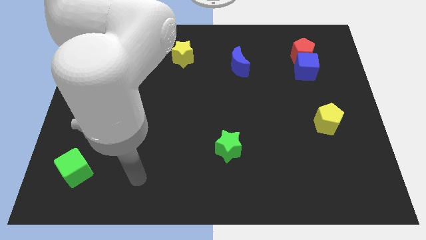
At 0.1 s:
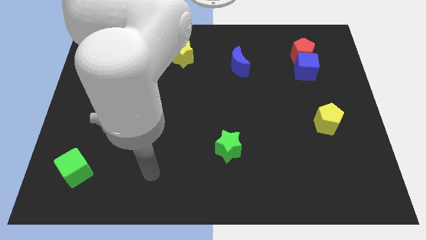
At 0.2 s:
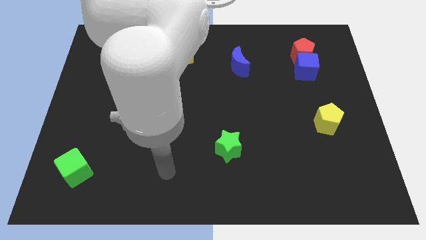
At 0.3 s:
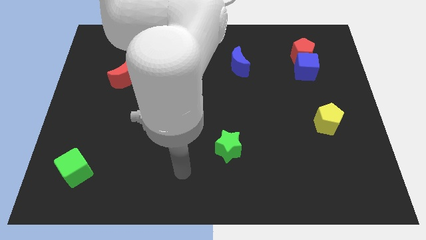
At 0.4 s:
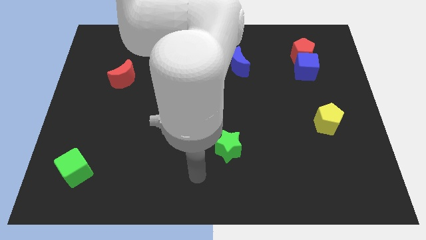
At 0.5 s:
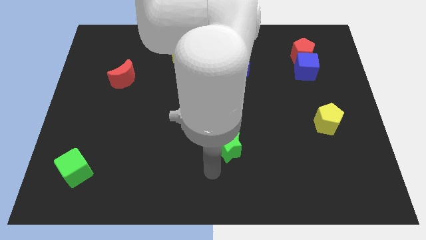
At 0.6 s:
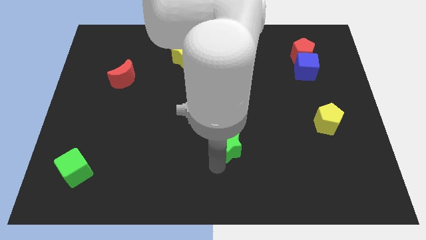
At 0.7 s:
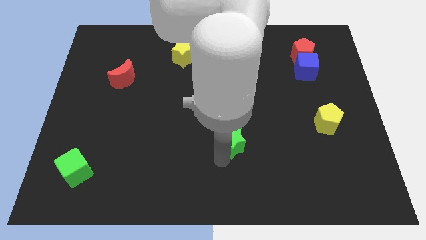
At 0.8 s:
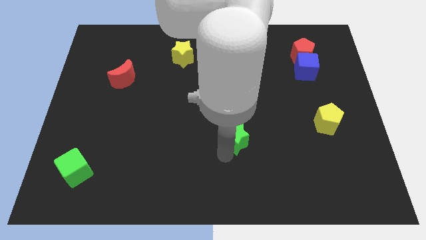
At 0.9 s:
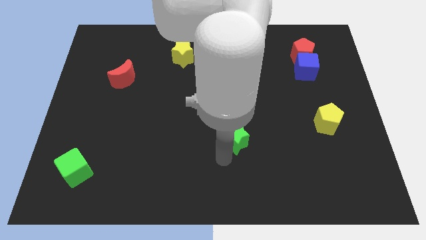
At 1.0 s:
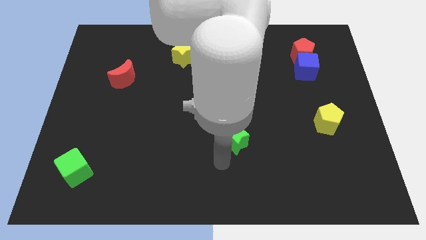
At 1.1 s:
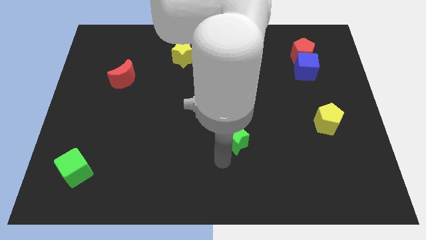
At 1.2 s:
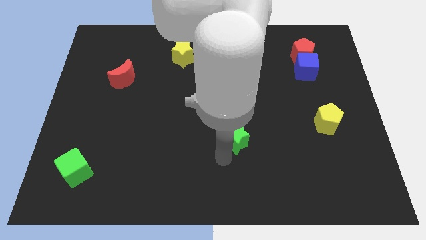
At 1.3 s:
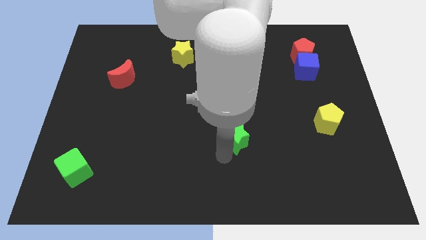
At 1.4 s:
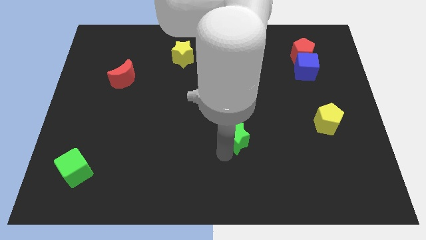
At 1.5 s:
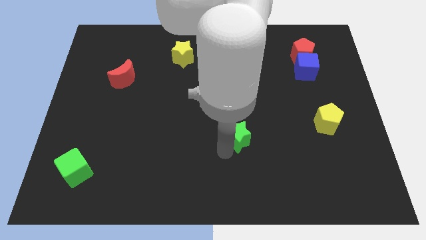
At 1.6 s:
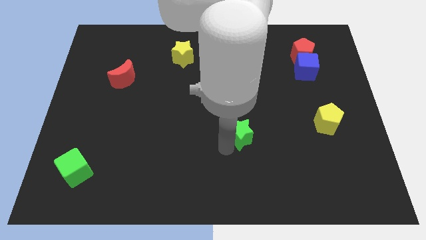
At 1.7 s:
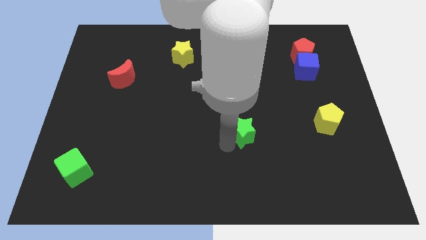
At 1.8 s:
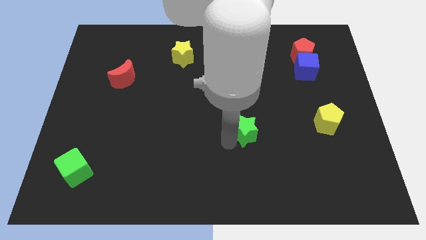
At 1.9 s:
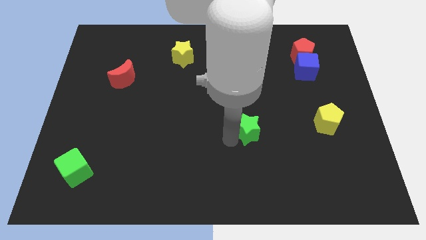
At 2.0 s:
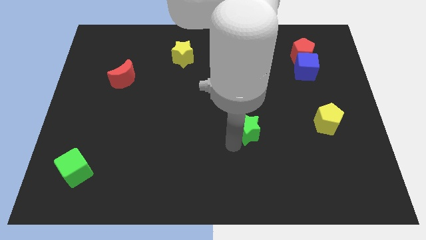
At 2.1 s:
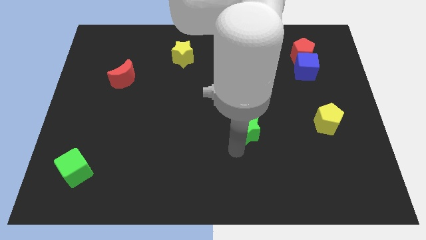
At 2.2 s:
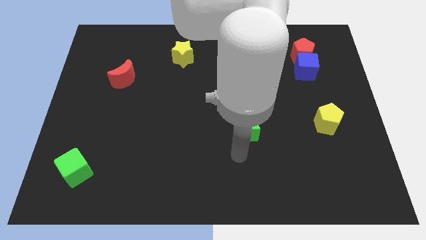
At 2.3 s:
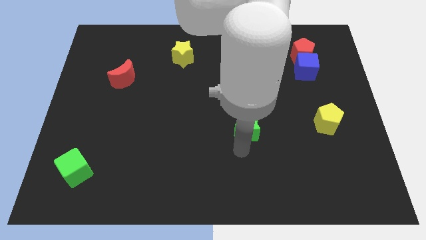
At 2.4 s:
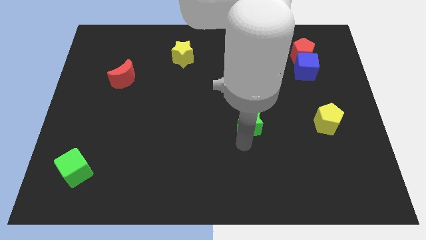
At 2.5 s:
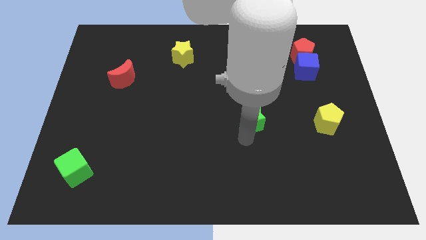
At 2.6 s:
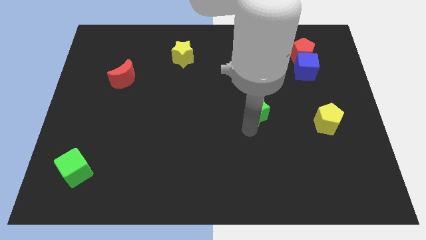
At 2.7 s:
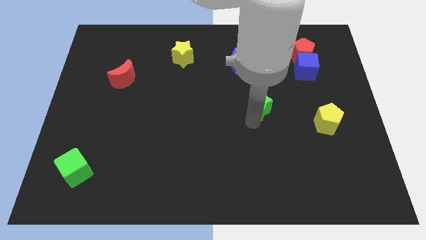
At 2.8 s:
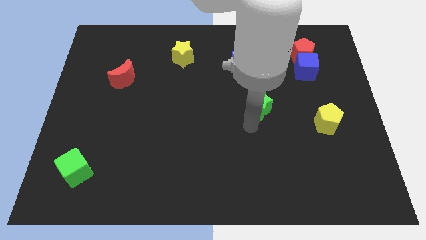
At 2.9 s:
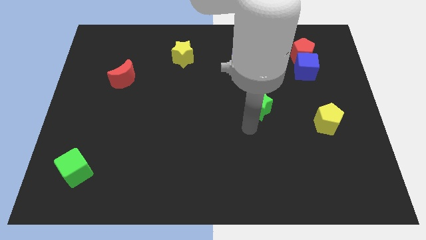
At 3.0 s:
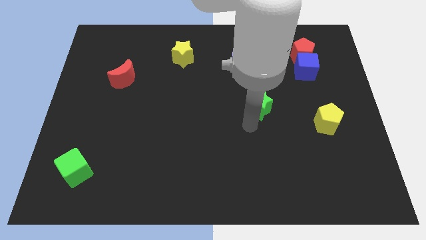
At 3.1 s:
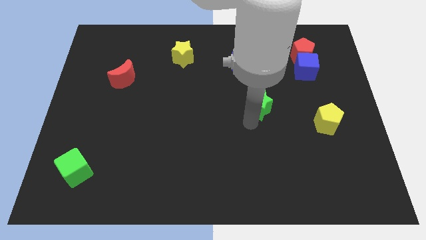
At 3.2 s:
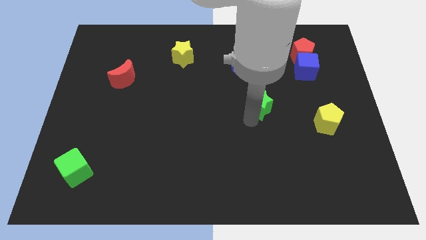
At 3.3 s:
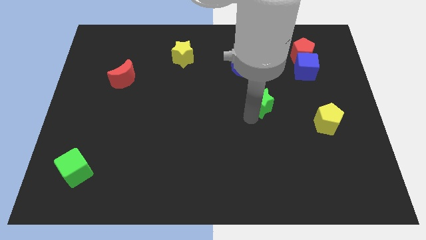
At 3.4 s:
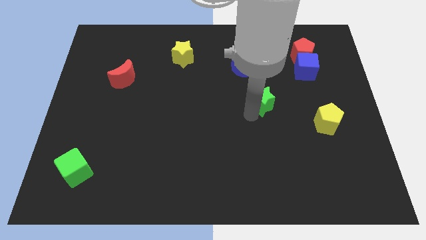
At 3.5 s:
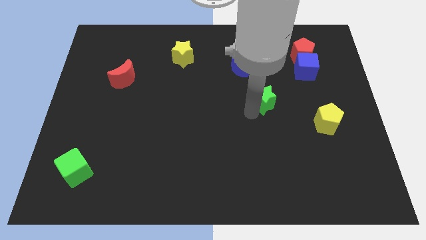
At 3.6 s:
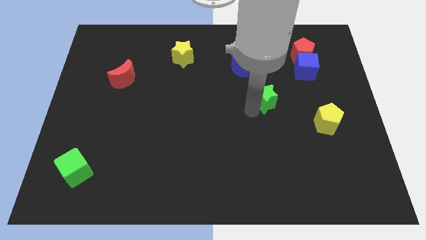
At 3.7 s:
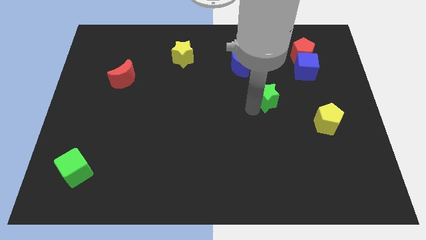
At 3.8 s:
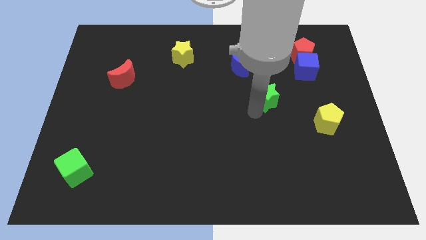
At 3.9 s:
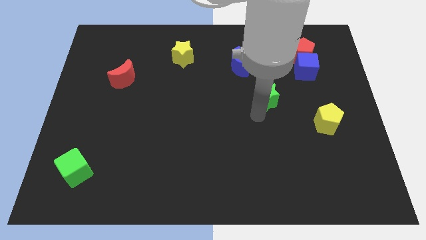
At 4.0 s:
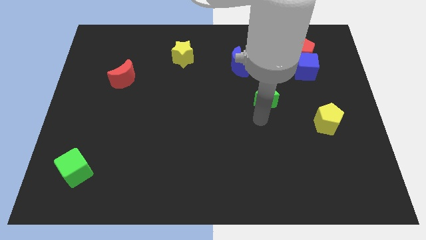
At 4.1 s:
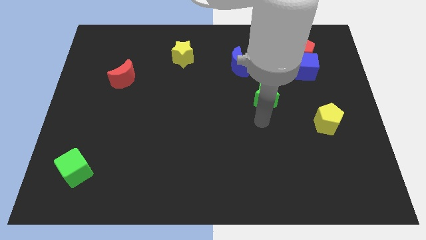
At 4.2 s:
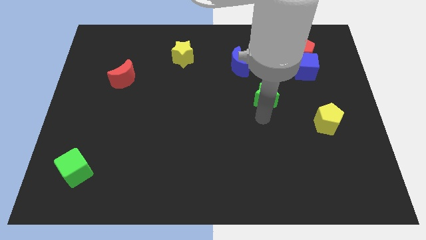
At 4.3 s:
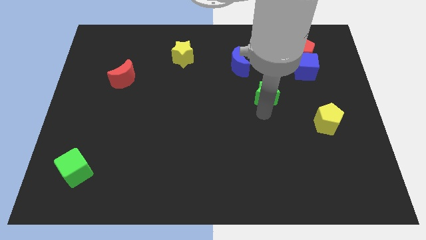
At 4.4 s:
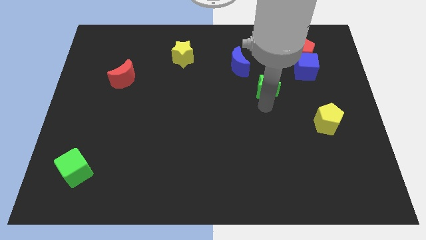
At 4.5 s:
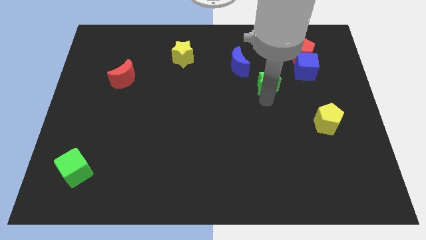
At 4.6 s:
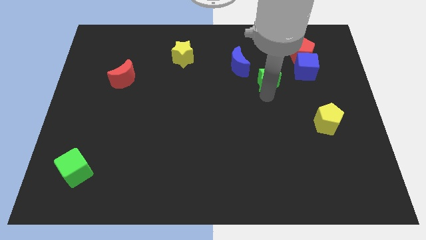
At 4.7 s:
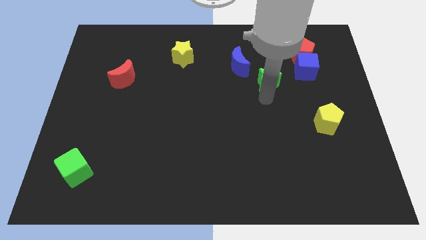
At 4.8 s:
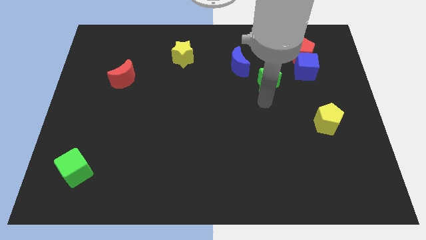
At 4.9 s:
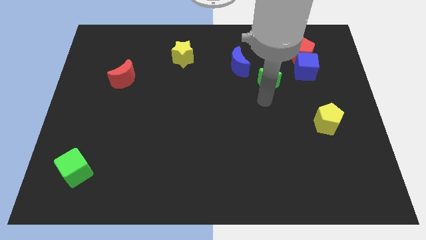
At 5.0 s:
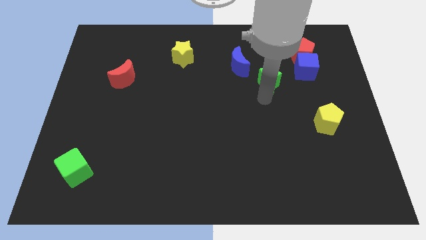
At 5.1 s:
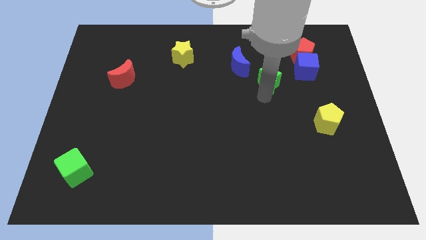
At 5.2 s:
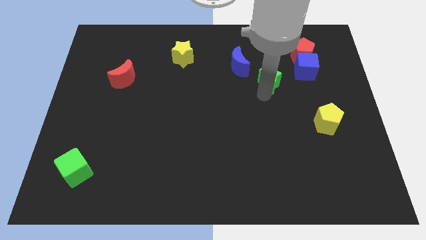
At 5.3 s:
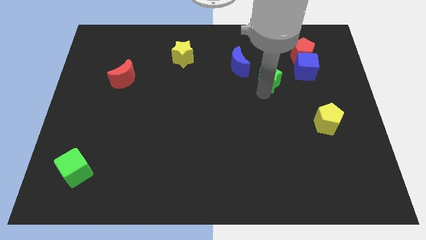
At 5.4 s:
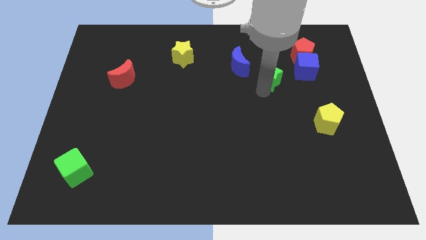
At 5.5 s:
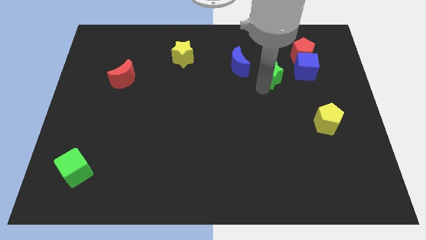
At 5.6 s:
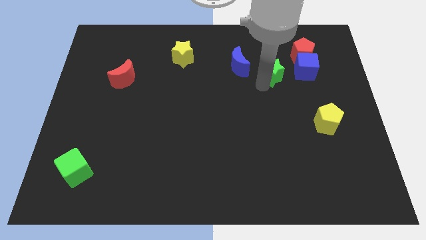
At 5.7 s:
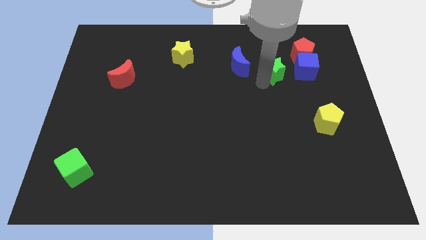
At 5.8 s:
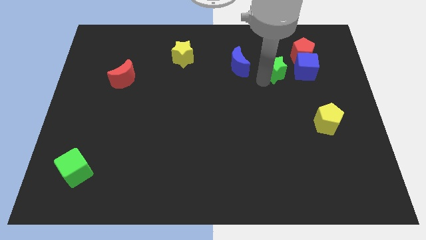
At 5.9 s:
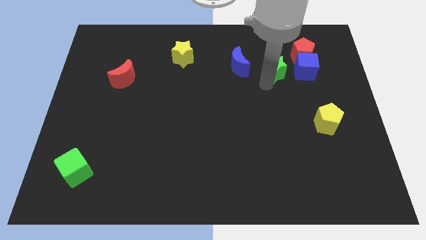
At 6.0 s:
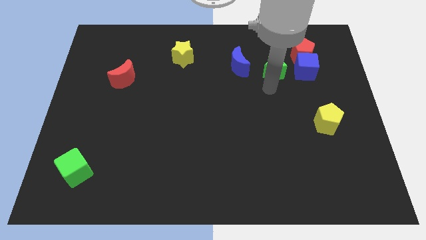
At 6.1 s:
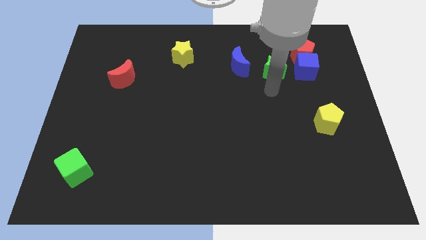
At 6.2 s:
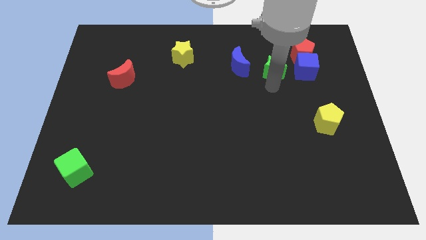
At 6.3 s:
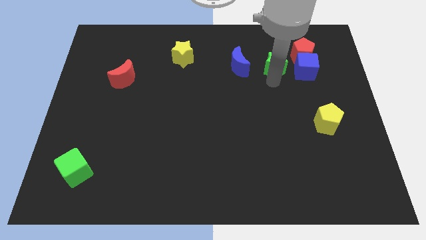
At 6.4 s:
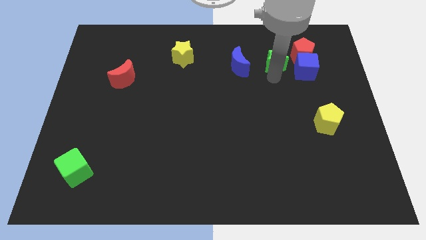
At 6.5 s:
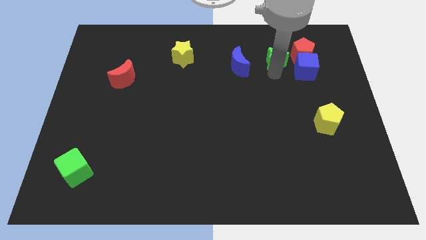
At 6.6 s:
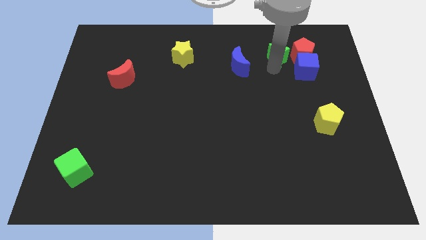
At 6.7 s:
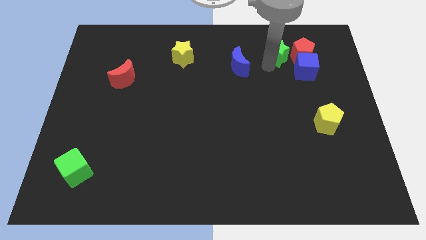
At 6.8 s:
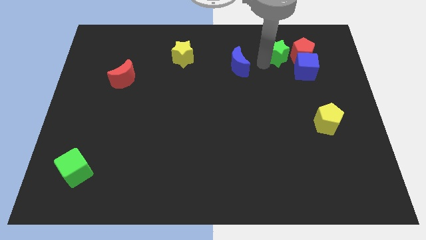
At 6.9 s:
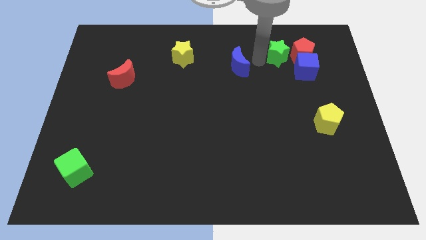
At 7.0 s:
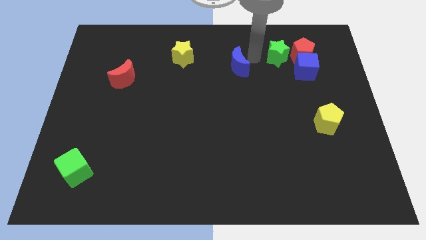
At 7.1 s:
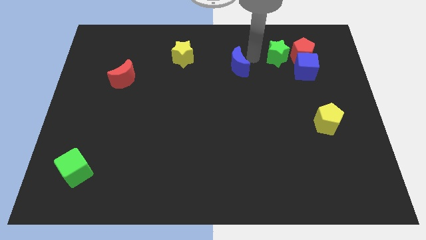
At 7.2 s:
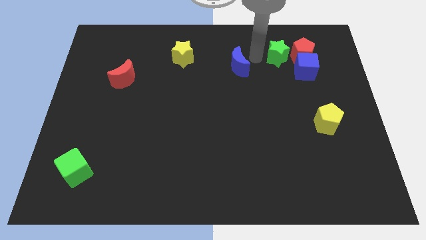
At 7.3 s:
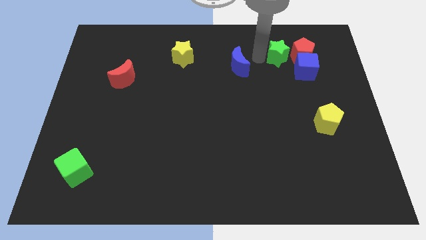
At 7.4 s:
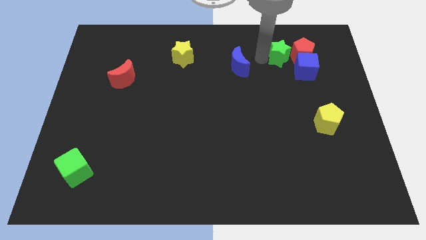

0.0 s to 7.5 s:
slide the green star to the red pentagon

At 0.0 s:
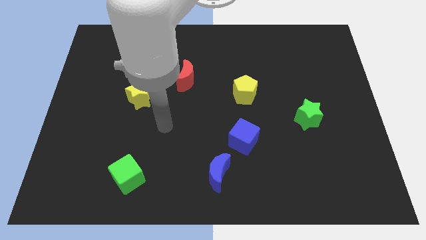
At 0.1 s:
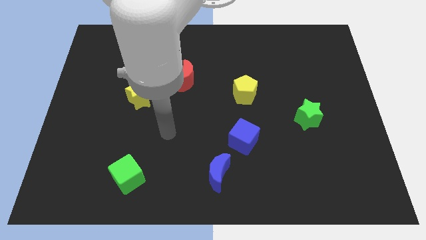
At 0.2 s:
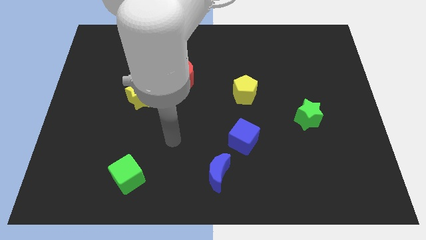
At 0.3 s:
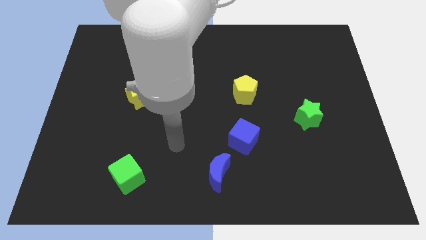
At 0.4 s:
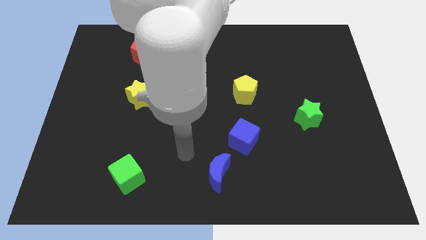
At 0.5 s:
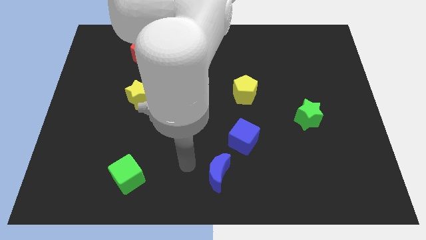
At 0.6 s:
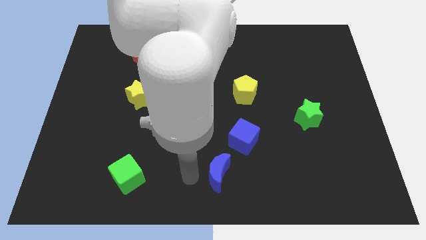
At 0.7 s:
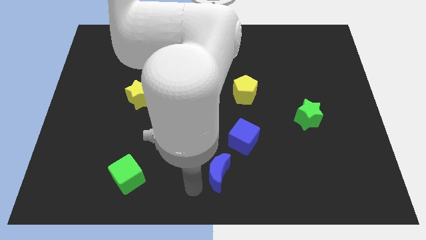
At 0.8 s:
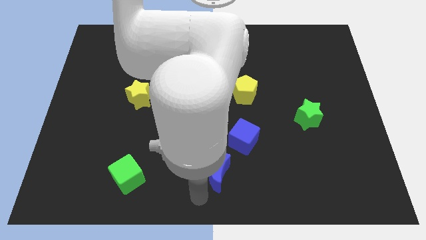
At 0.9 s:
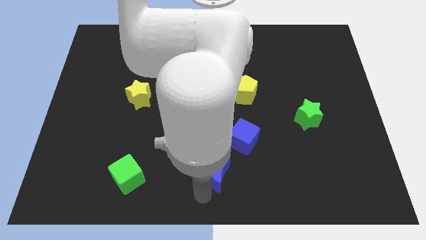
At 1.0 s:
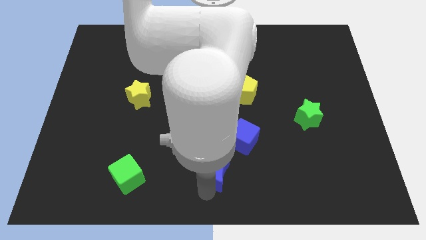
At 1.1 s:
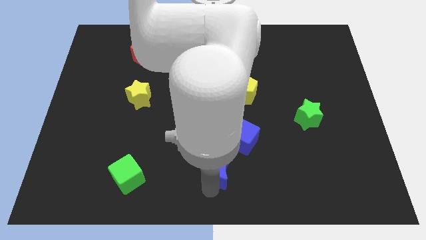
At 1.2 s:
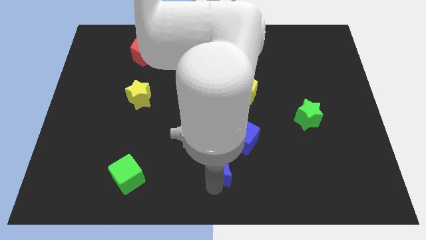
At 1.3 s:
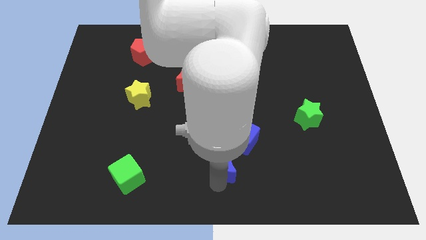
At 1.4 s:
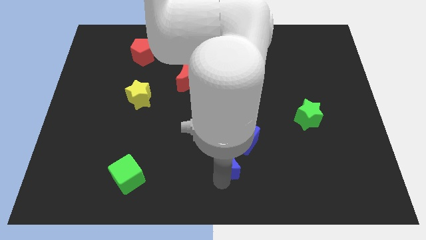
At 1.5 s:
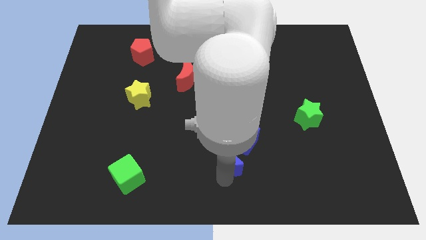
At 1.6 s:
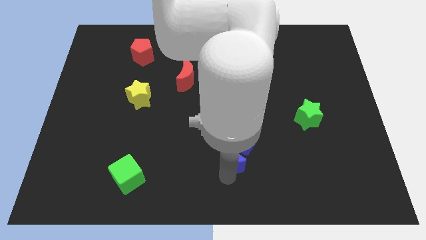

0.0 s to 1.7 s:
slide the blue moon close to the blue cube
